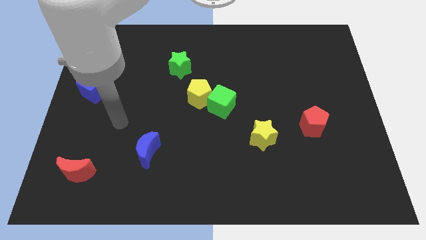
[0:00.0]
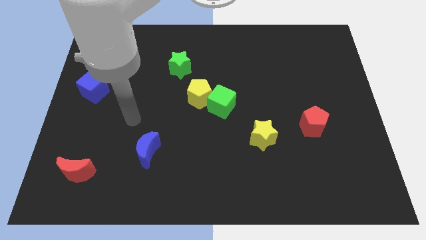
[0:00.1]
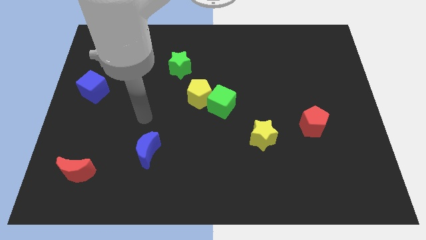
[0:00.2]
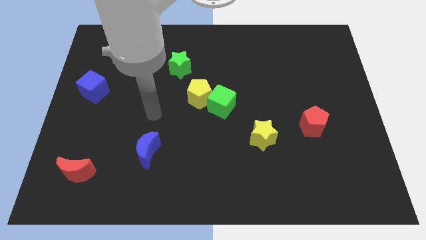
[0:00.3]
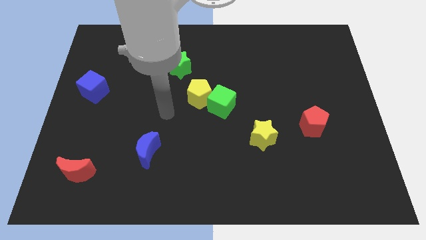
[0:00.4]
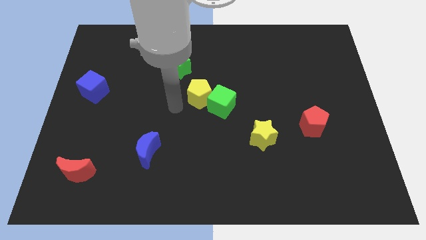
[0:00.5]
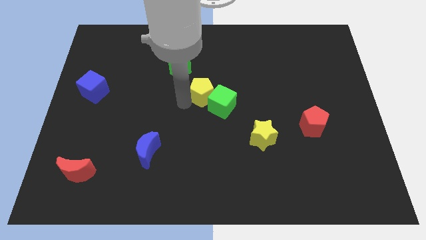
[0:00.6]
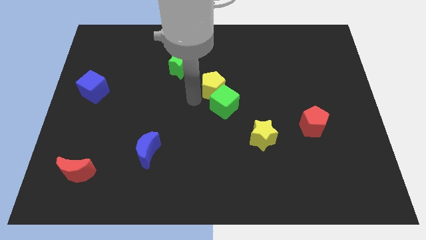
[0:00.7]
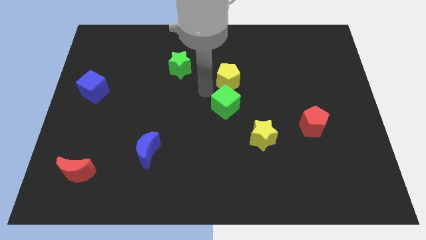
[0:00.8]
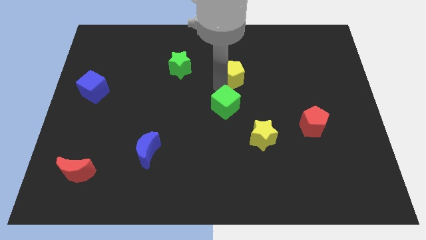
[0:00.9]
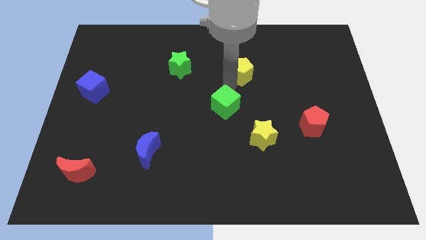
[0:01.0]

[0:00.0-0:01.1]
pull the green cube apart from the yellow pentagon

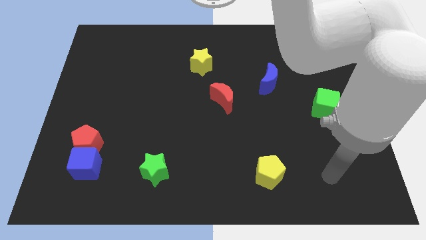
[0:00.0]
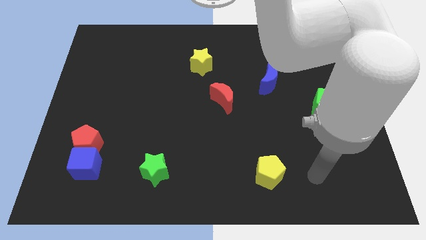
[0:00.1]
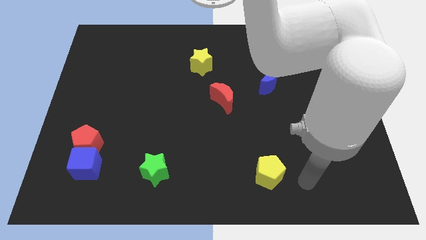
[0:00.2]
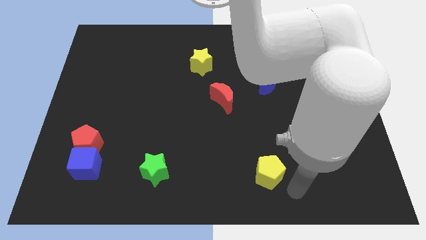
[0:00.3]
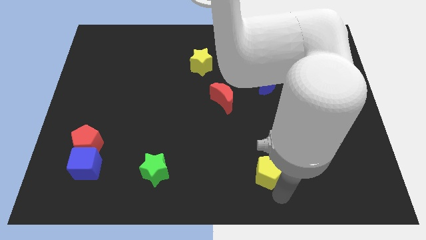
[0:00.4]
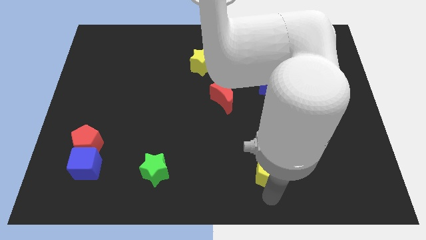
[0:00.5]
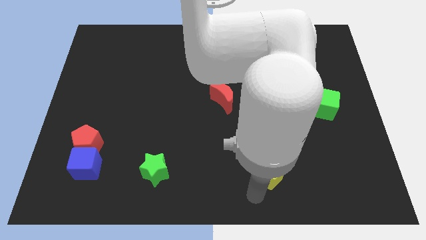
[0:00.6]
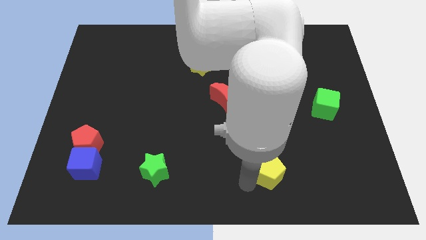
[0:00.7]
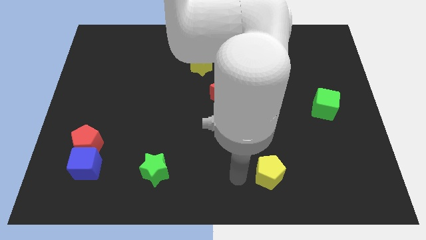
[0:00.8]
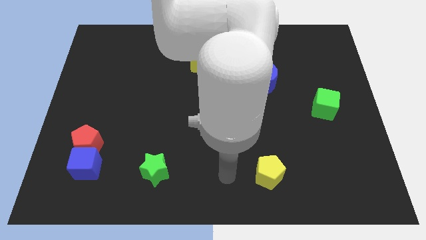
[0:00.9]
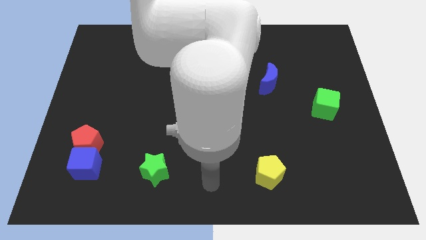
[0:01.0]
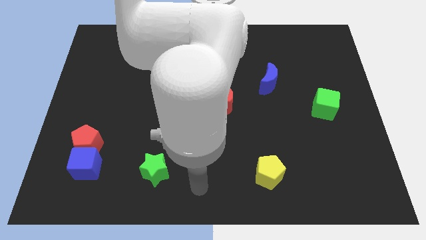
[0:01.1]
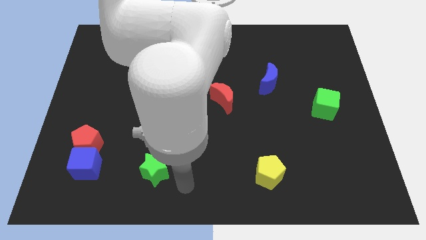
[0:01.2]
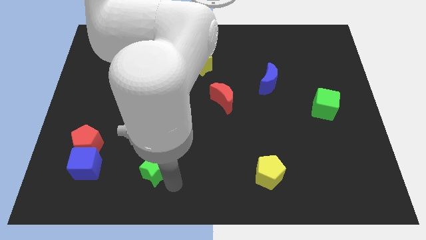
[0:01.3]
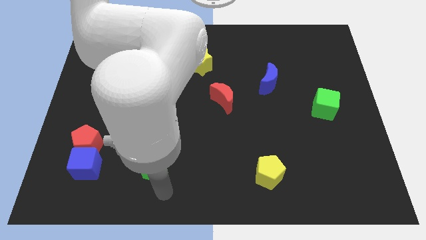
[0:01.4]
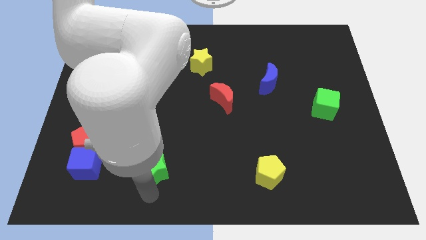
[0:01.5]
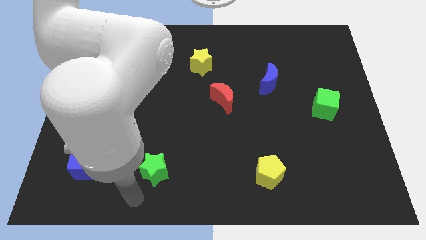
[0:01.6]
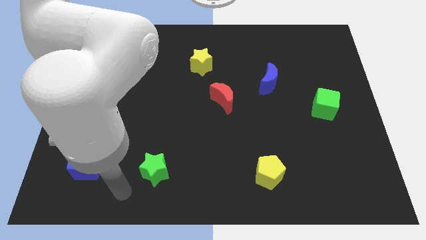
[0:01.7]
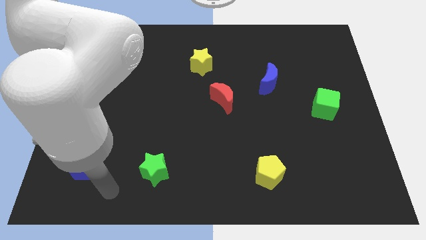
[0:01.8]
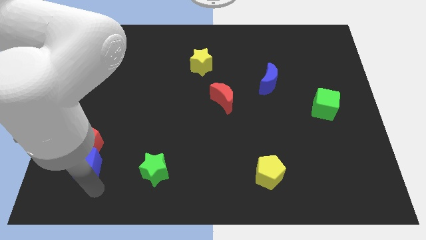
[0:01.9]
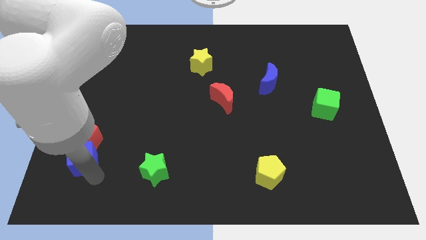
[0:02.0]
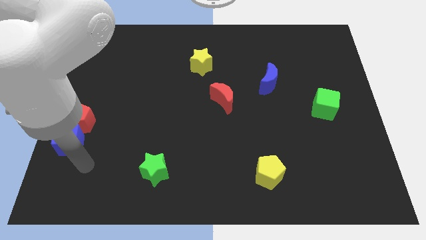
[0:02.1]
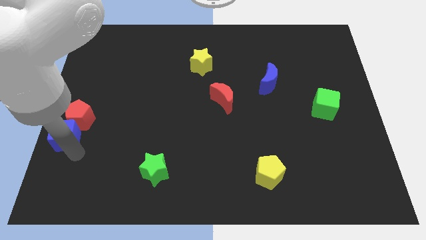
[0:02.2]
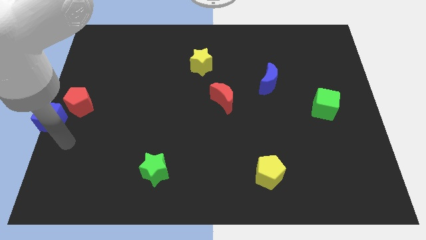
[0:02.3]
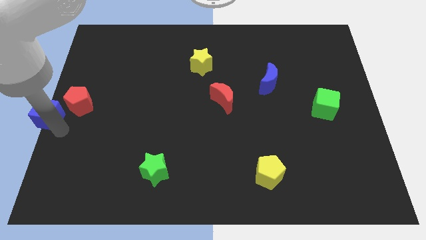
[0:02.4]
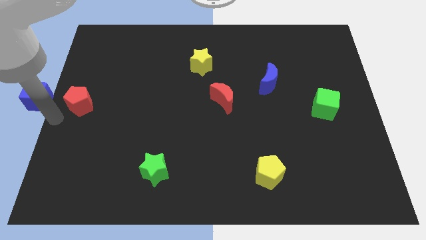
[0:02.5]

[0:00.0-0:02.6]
separate the red pentagon from the blue cube

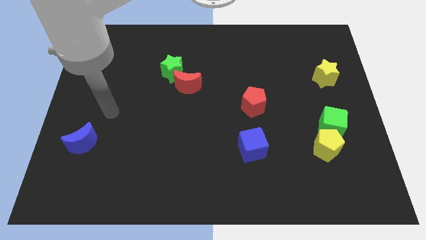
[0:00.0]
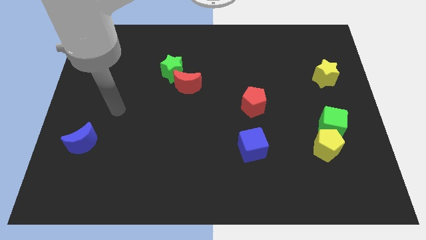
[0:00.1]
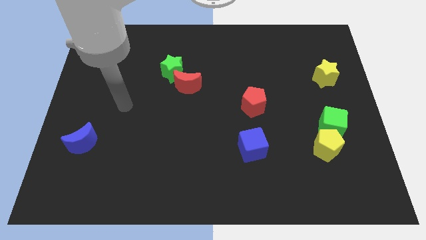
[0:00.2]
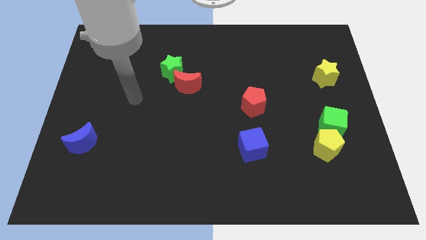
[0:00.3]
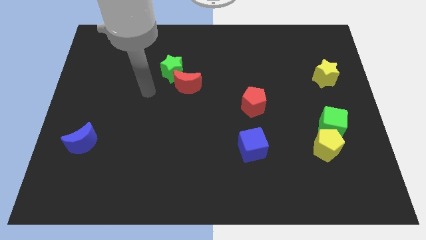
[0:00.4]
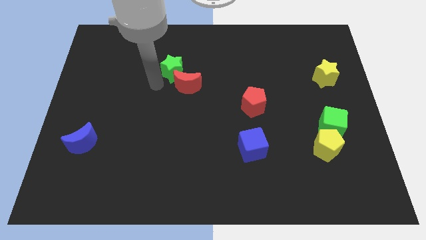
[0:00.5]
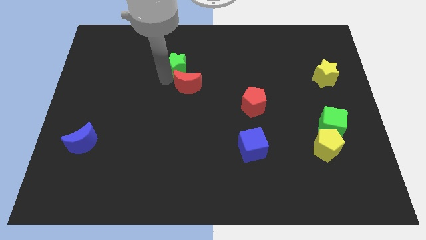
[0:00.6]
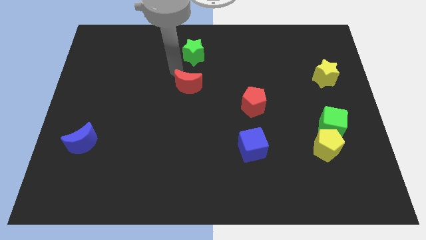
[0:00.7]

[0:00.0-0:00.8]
move the red moon away from the green star

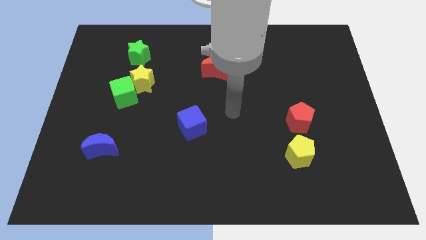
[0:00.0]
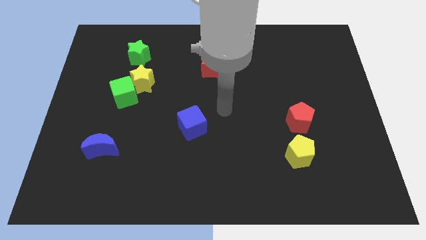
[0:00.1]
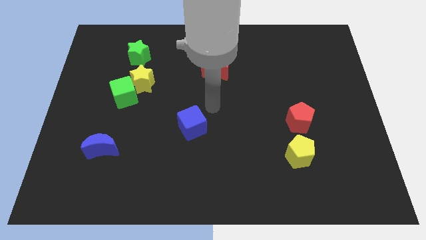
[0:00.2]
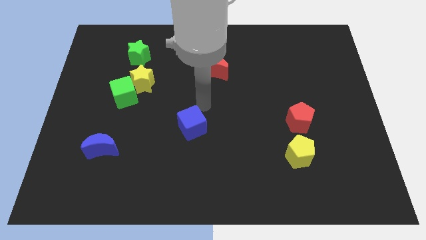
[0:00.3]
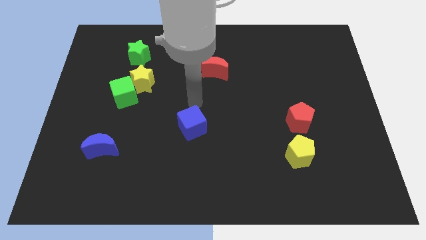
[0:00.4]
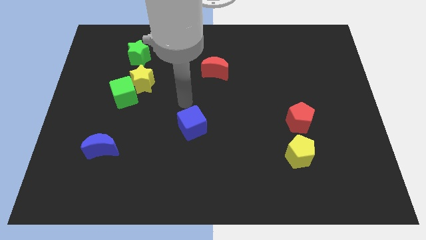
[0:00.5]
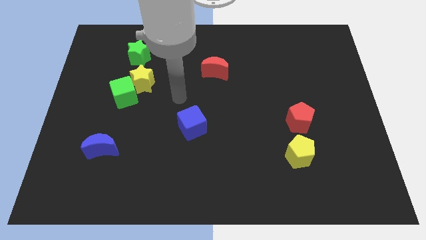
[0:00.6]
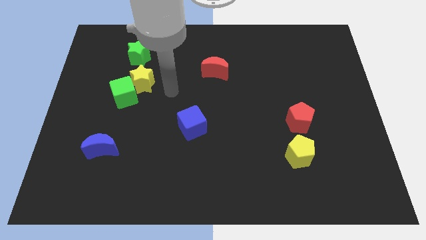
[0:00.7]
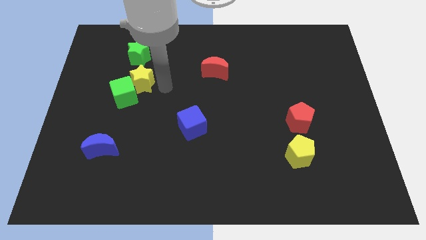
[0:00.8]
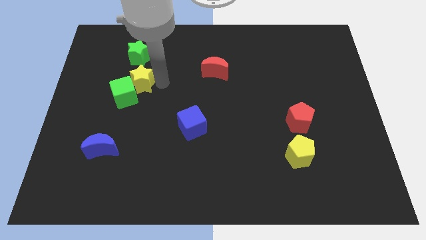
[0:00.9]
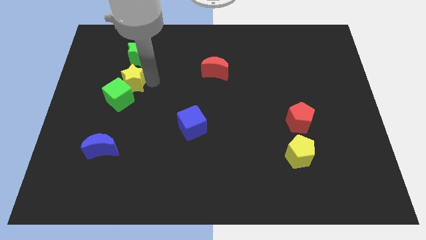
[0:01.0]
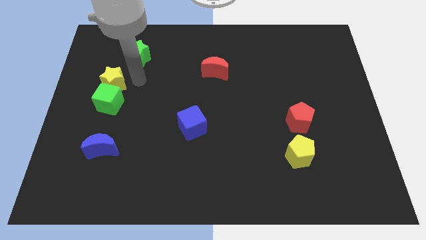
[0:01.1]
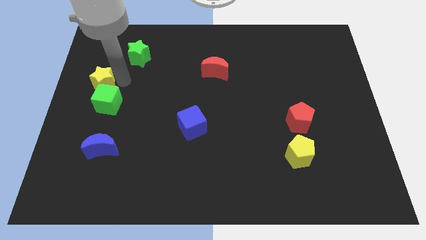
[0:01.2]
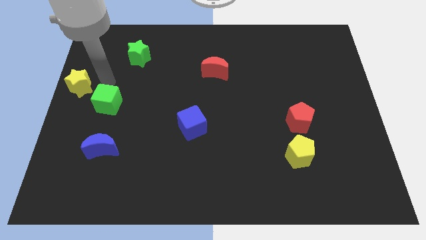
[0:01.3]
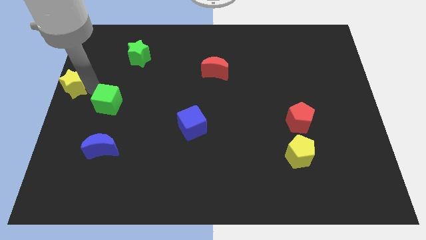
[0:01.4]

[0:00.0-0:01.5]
pull the green cube apart from the yellow star

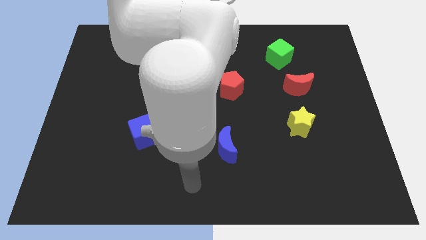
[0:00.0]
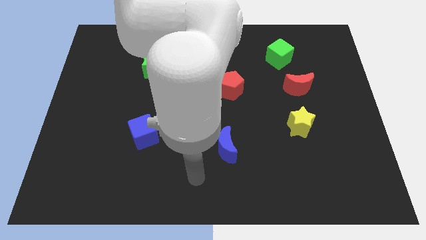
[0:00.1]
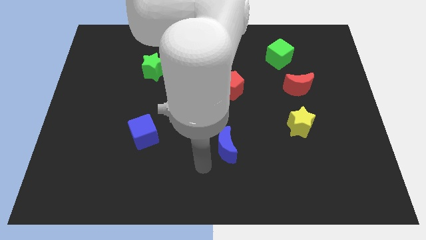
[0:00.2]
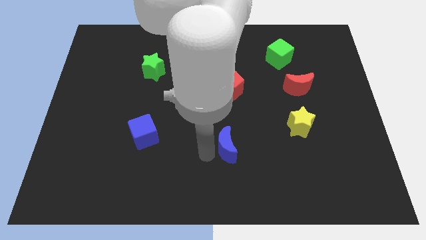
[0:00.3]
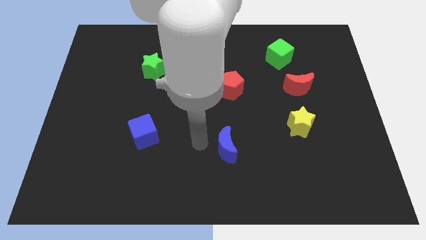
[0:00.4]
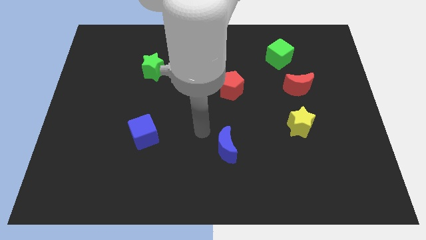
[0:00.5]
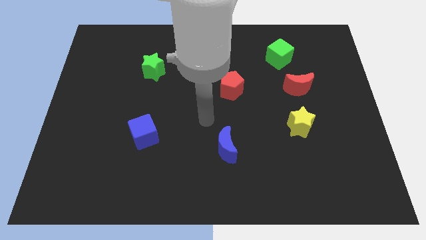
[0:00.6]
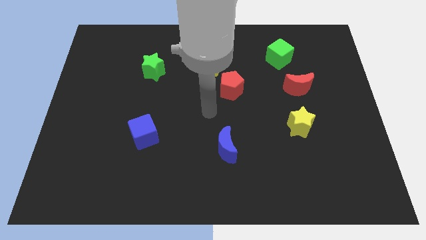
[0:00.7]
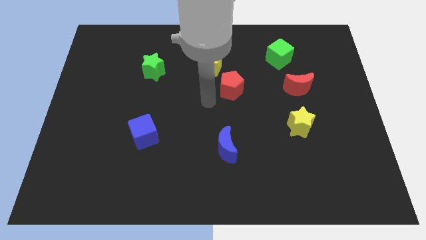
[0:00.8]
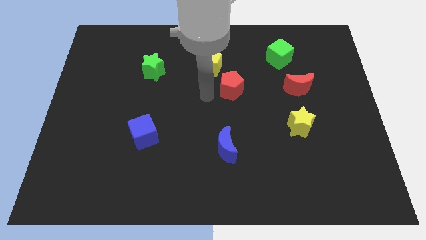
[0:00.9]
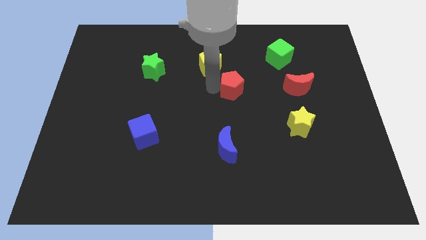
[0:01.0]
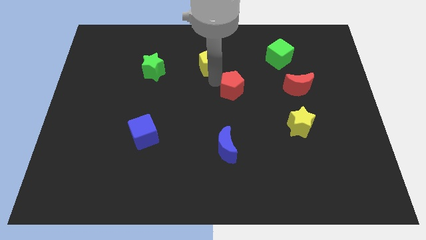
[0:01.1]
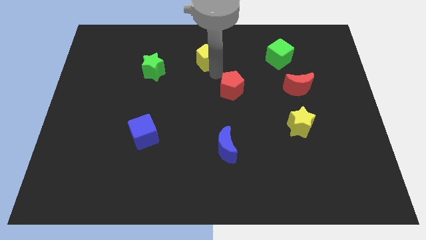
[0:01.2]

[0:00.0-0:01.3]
separate the red pentagon from the yellow pentagon

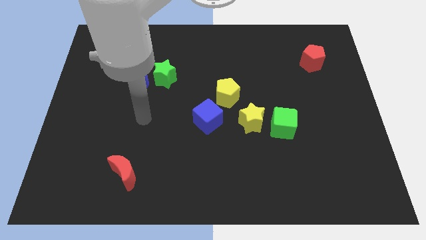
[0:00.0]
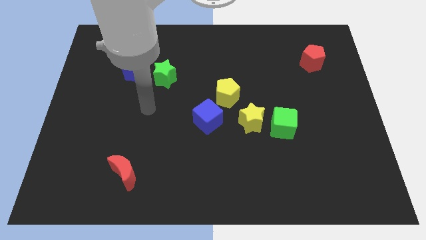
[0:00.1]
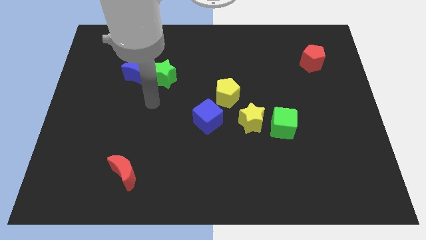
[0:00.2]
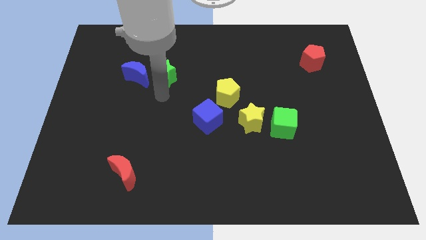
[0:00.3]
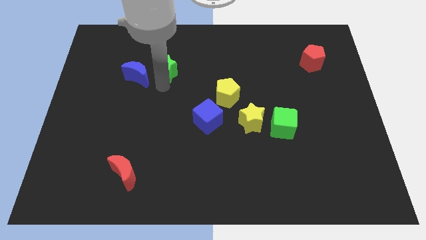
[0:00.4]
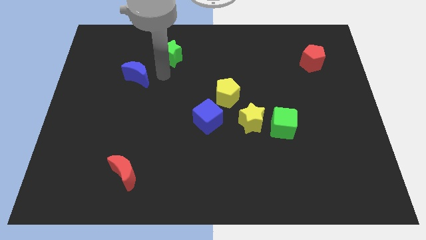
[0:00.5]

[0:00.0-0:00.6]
move the blue moon away from the green star

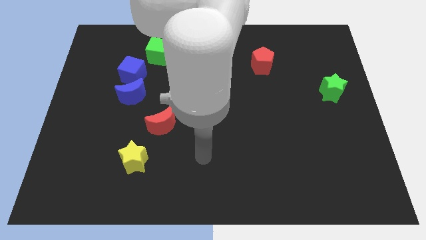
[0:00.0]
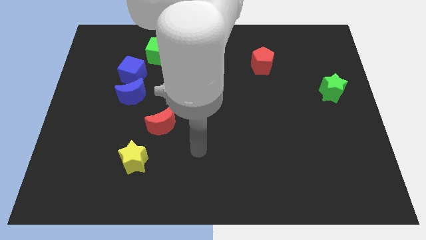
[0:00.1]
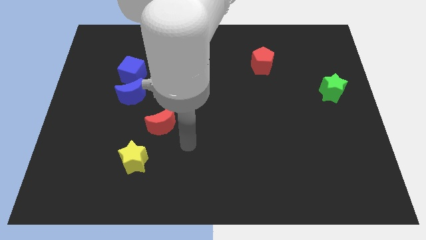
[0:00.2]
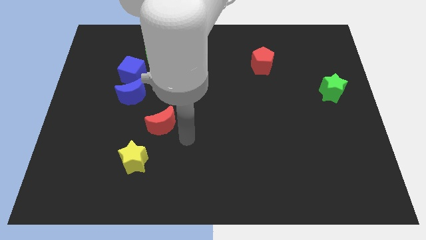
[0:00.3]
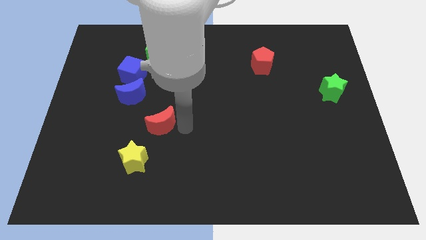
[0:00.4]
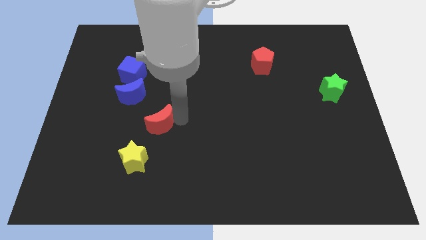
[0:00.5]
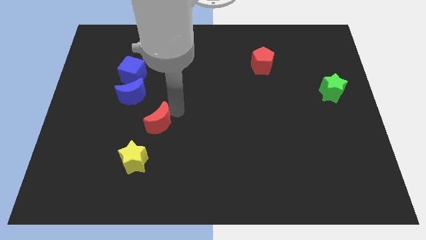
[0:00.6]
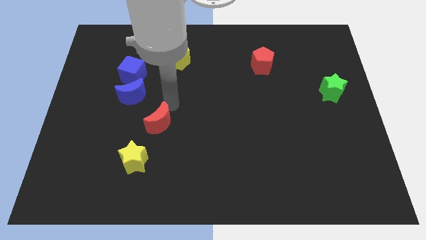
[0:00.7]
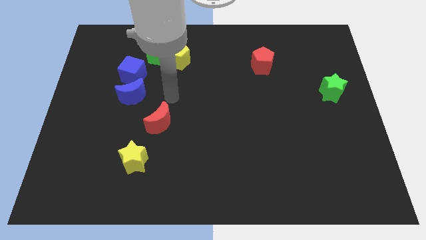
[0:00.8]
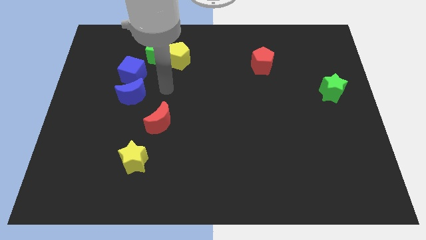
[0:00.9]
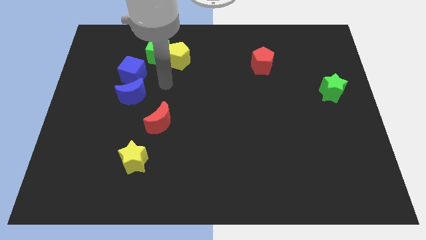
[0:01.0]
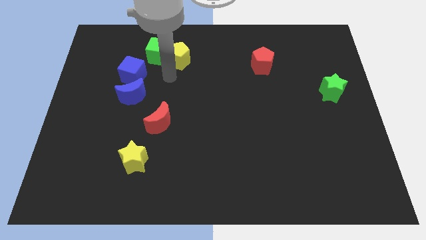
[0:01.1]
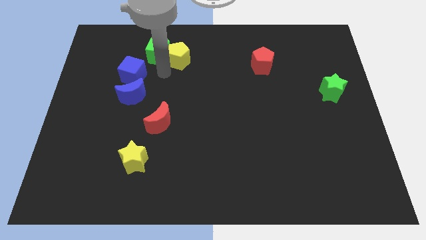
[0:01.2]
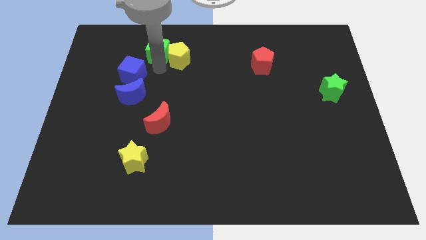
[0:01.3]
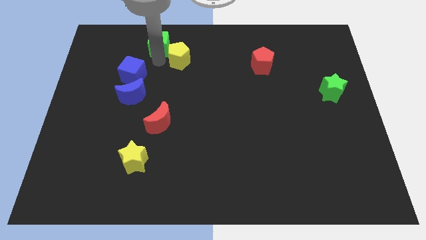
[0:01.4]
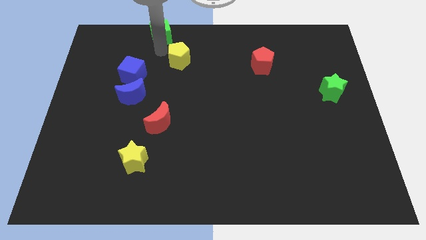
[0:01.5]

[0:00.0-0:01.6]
separate the yellow pentagon from the green cube
